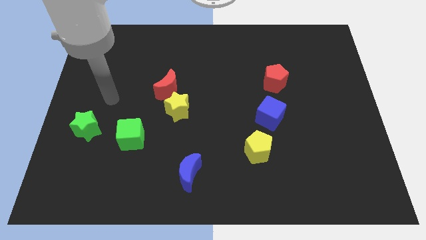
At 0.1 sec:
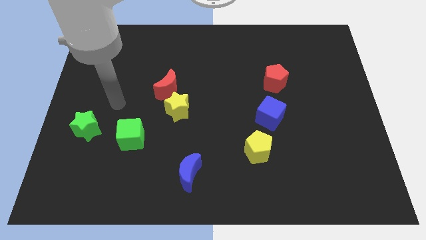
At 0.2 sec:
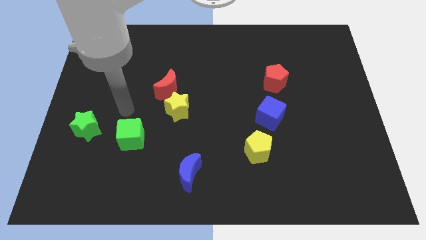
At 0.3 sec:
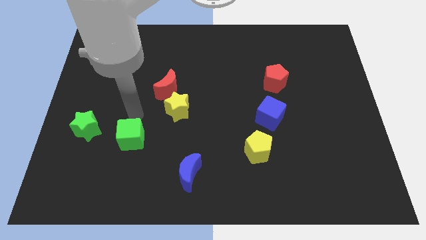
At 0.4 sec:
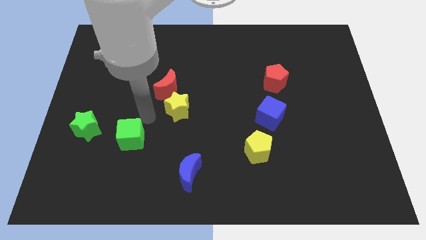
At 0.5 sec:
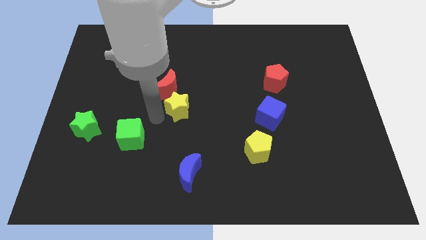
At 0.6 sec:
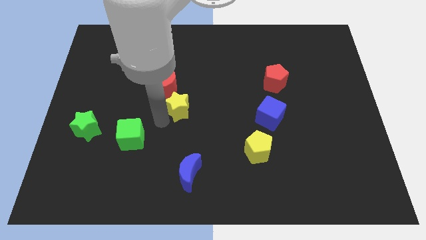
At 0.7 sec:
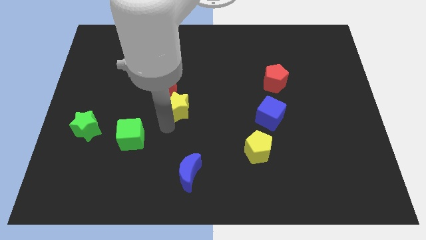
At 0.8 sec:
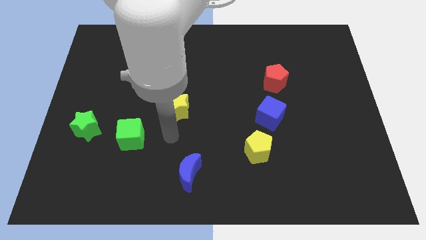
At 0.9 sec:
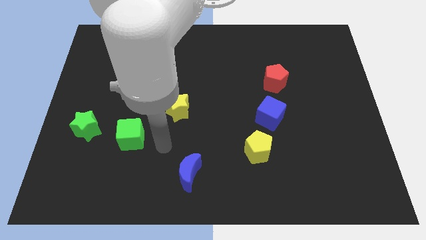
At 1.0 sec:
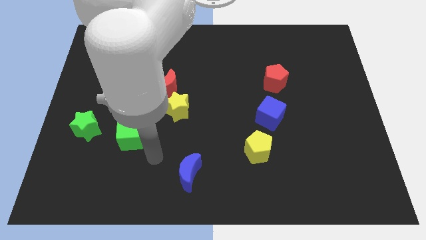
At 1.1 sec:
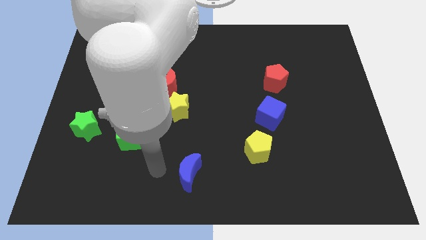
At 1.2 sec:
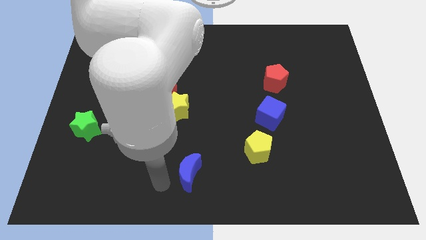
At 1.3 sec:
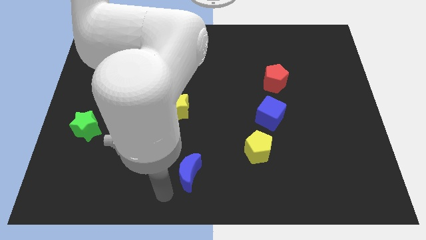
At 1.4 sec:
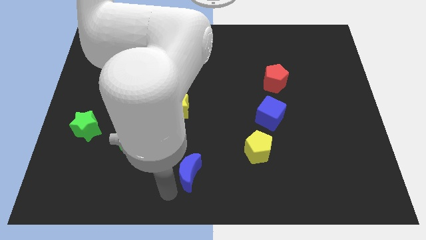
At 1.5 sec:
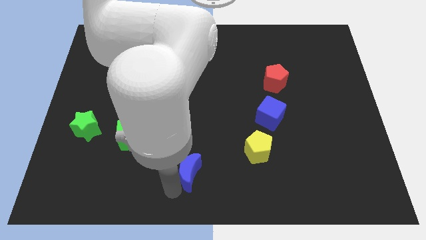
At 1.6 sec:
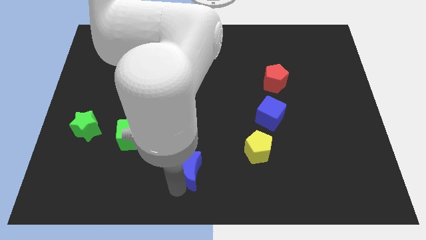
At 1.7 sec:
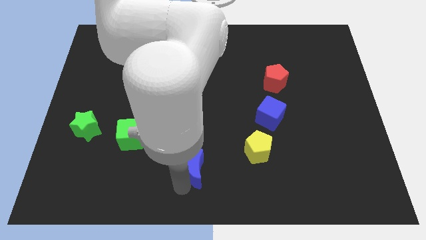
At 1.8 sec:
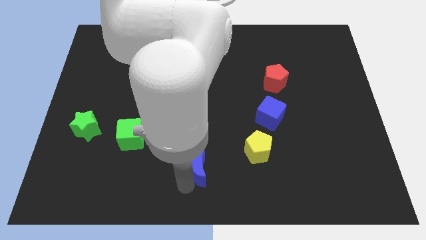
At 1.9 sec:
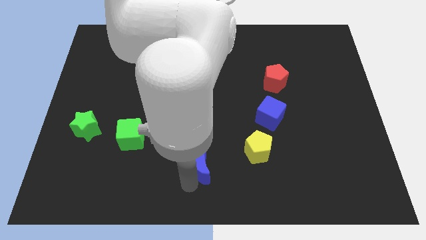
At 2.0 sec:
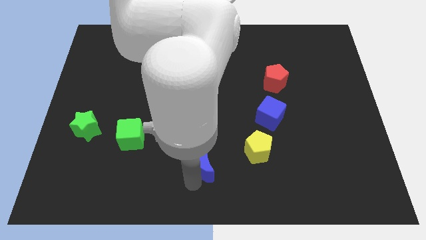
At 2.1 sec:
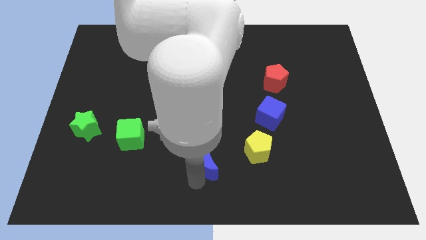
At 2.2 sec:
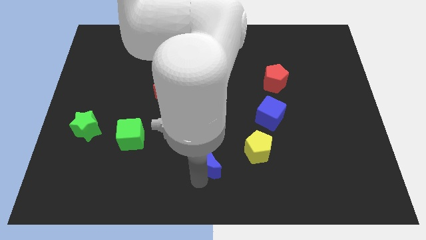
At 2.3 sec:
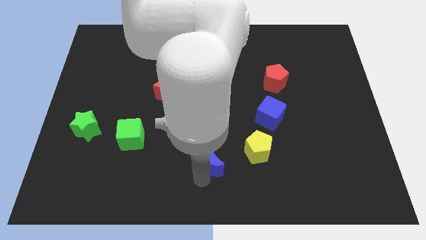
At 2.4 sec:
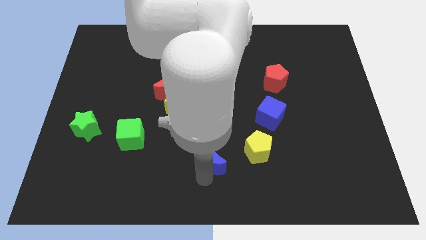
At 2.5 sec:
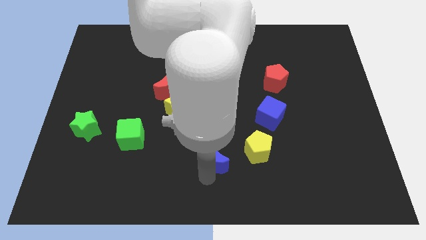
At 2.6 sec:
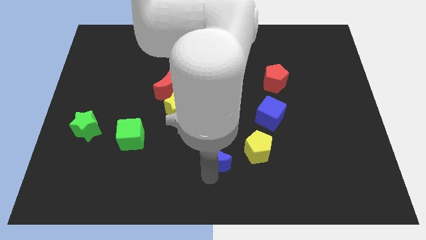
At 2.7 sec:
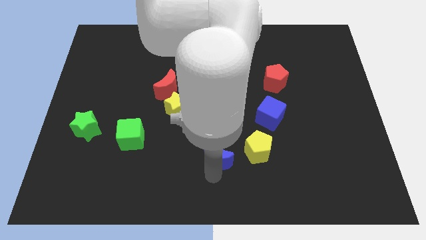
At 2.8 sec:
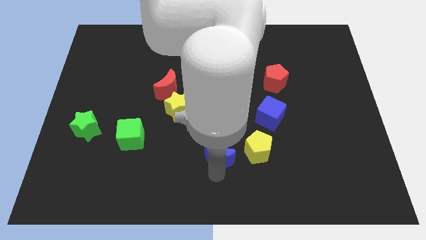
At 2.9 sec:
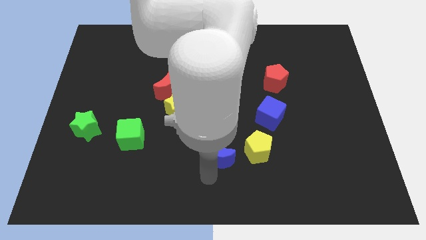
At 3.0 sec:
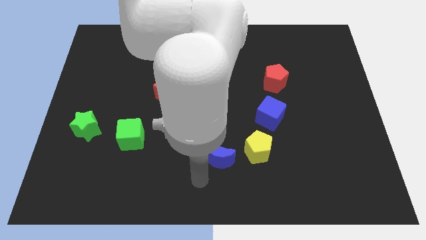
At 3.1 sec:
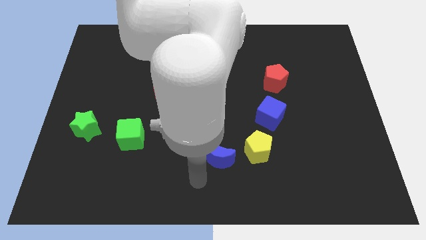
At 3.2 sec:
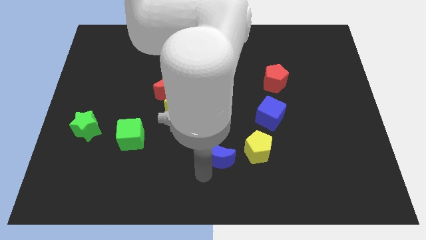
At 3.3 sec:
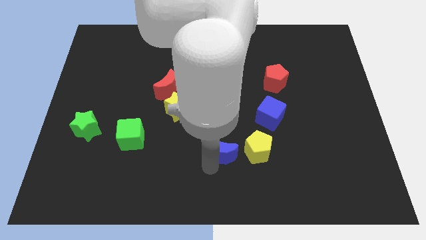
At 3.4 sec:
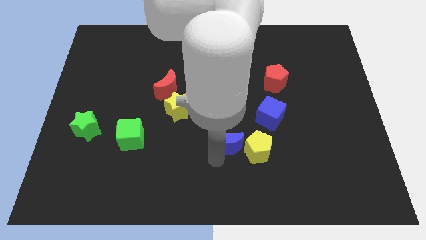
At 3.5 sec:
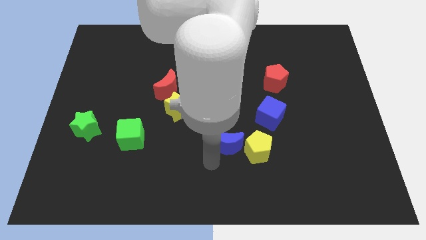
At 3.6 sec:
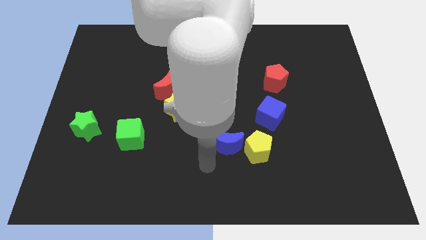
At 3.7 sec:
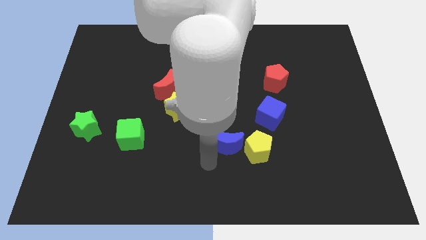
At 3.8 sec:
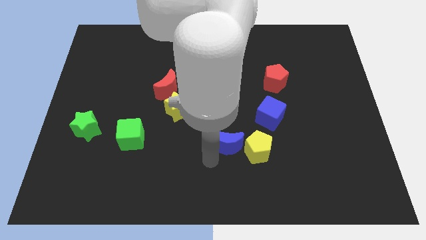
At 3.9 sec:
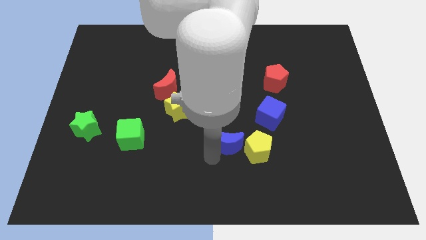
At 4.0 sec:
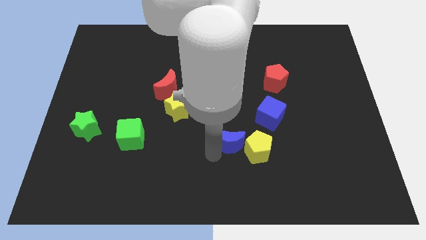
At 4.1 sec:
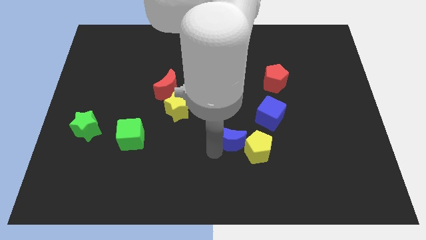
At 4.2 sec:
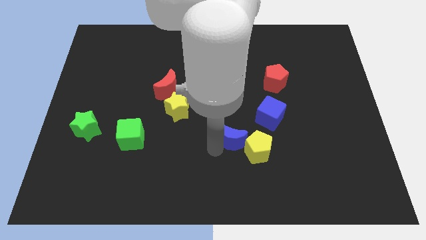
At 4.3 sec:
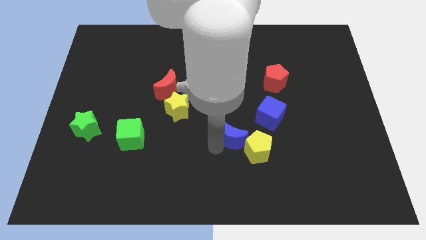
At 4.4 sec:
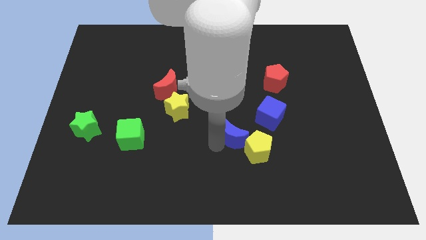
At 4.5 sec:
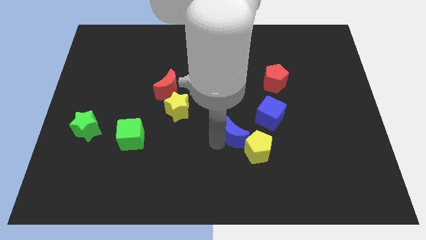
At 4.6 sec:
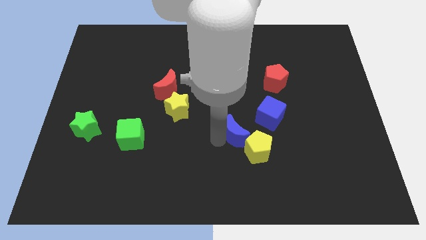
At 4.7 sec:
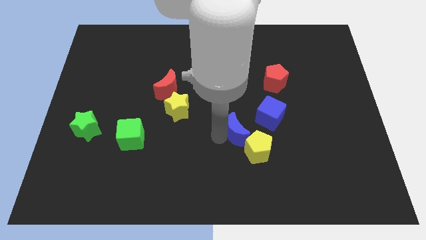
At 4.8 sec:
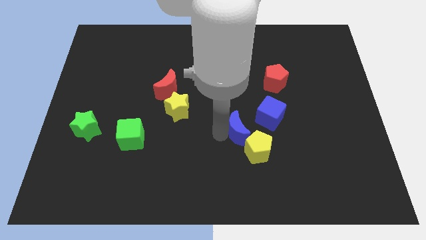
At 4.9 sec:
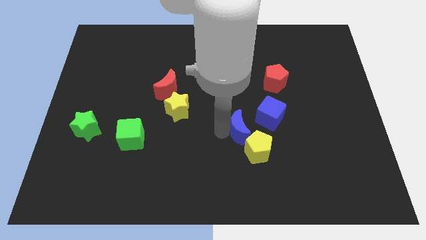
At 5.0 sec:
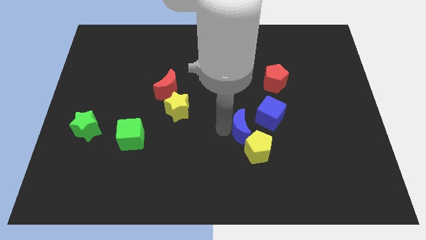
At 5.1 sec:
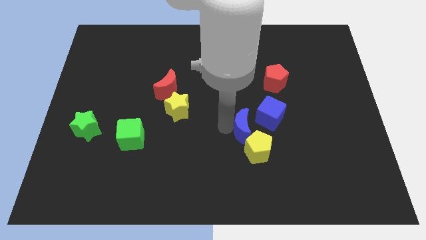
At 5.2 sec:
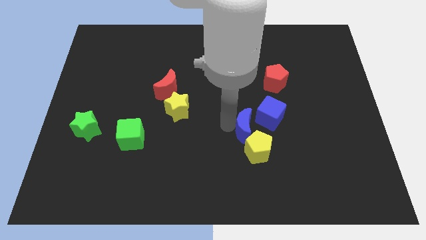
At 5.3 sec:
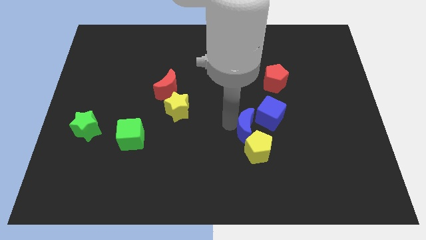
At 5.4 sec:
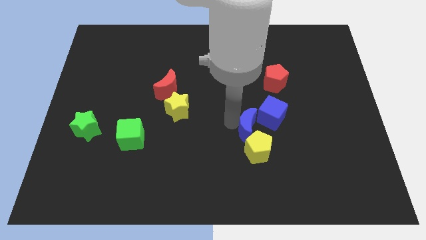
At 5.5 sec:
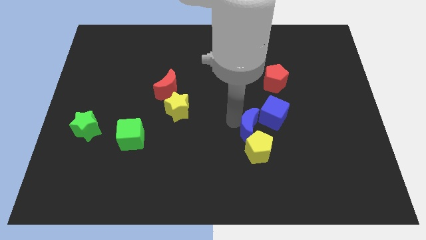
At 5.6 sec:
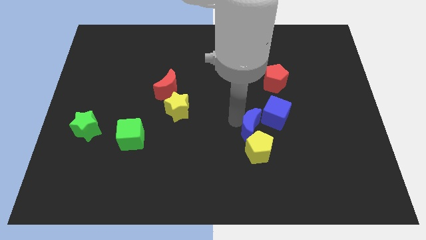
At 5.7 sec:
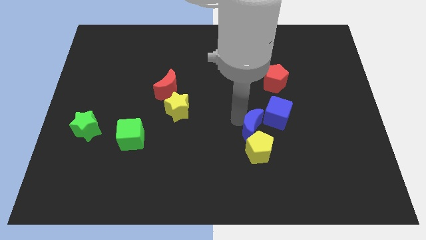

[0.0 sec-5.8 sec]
slide the blue moon to the top right side of the yellow pentagon

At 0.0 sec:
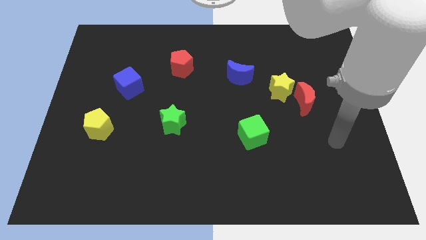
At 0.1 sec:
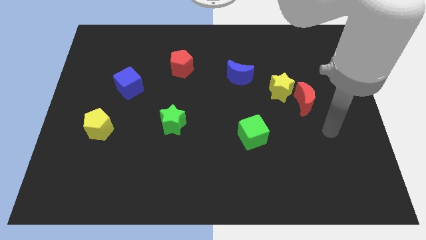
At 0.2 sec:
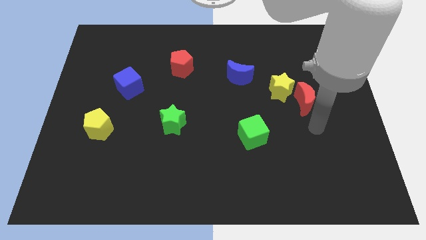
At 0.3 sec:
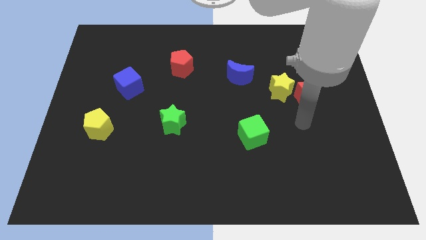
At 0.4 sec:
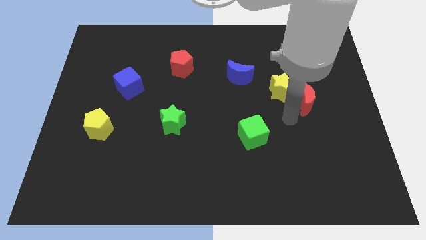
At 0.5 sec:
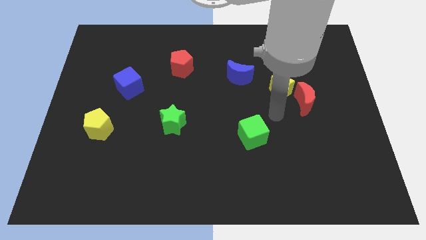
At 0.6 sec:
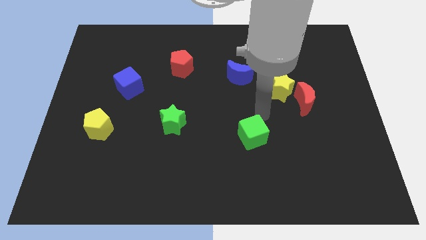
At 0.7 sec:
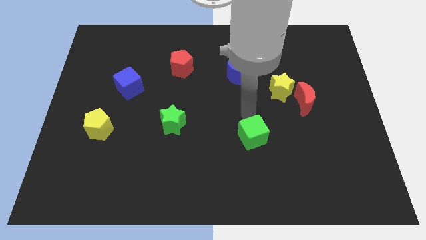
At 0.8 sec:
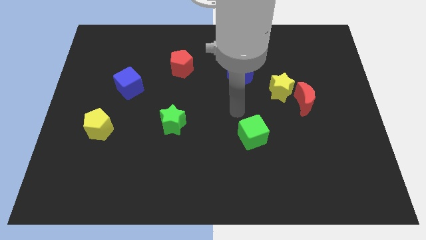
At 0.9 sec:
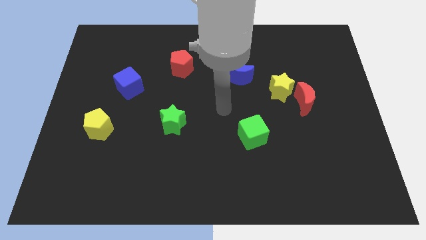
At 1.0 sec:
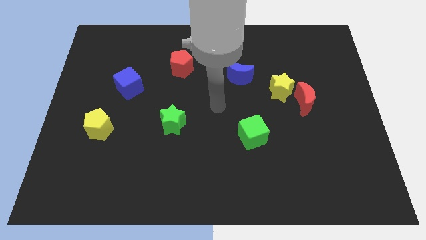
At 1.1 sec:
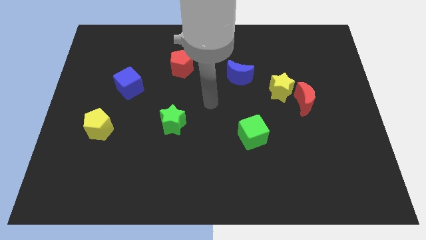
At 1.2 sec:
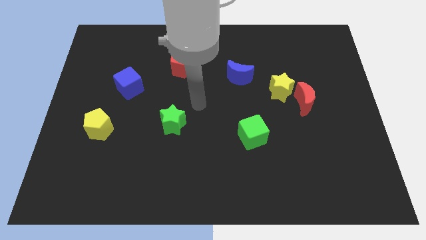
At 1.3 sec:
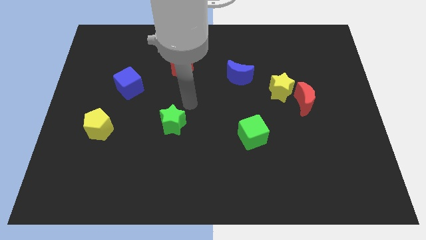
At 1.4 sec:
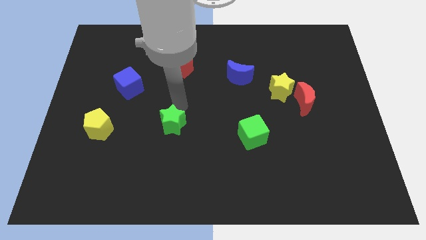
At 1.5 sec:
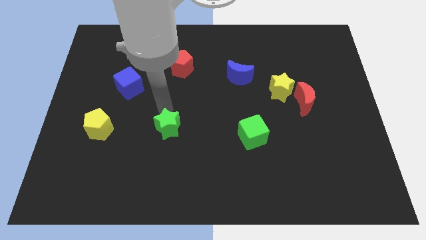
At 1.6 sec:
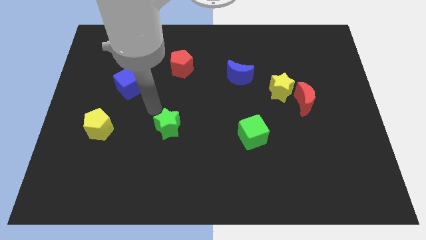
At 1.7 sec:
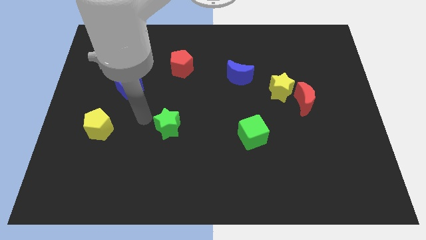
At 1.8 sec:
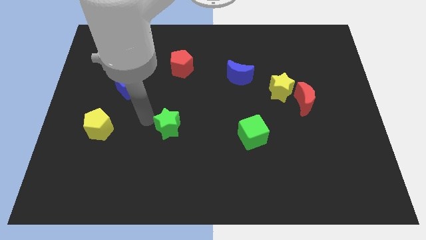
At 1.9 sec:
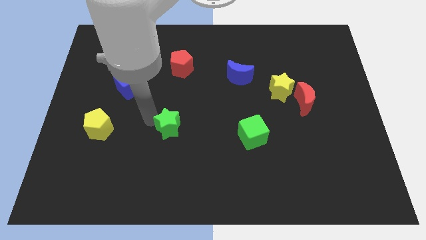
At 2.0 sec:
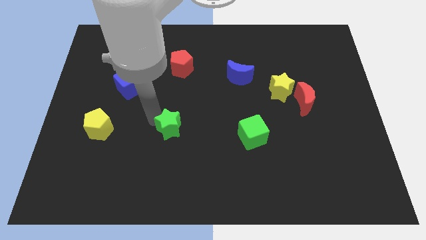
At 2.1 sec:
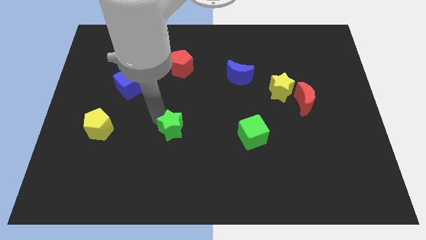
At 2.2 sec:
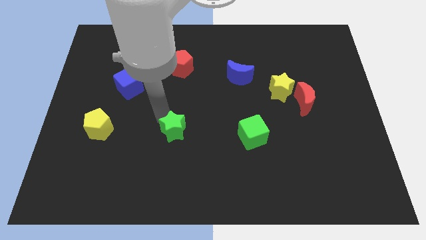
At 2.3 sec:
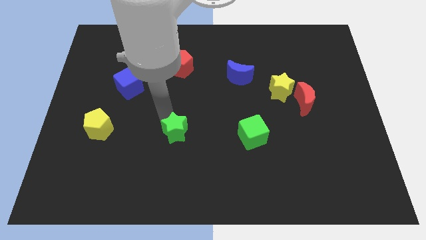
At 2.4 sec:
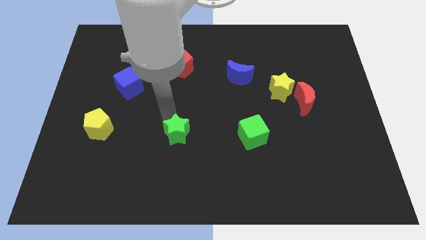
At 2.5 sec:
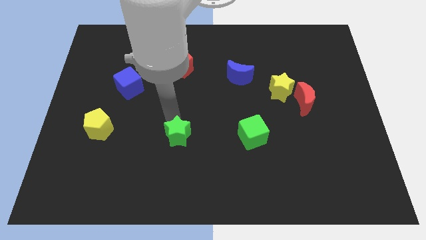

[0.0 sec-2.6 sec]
push the green star left of the green cube
